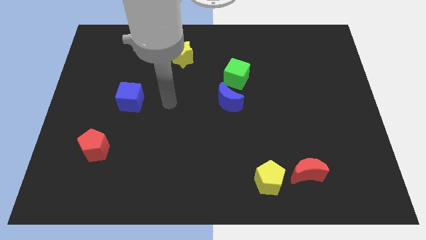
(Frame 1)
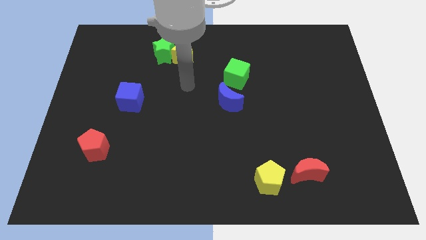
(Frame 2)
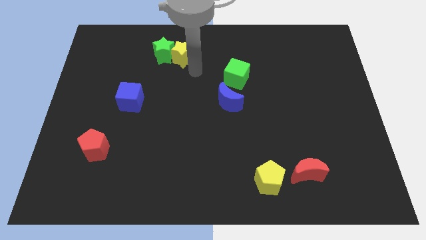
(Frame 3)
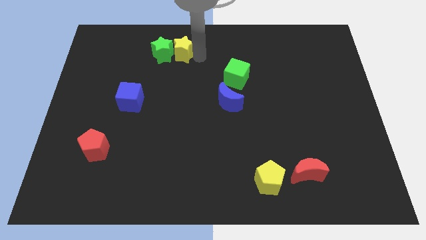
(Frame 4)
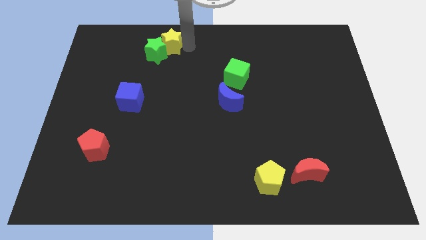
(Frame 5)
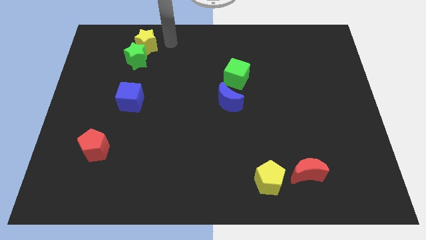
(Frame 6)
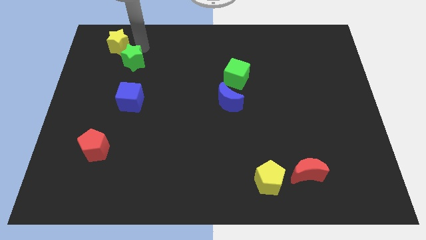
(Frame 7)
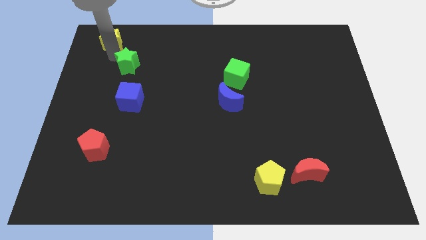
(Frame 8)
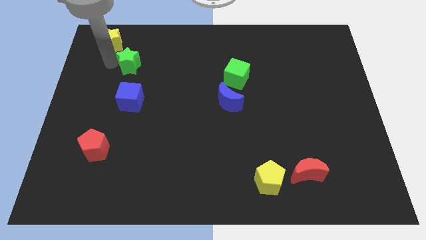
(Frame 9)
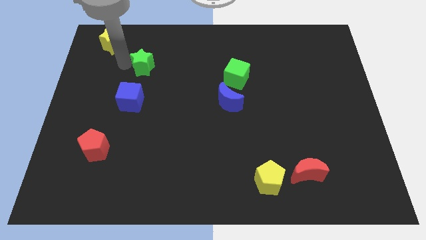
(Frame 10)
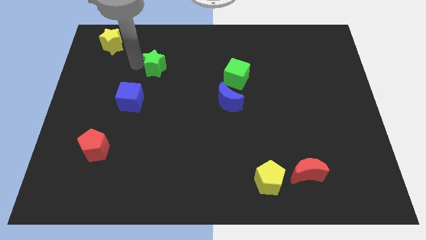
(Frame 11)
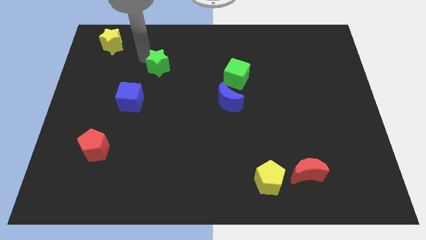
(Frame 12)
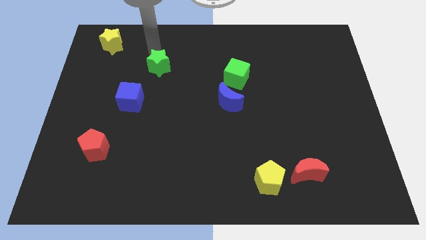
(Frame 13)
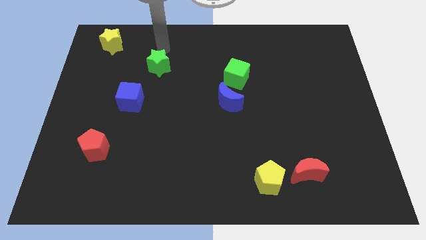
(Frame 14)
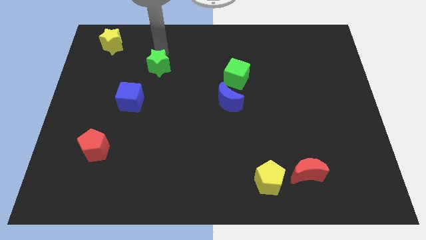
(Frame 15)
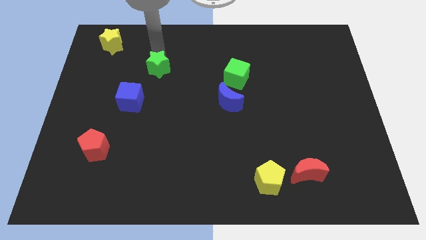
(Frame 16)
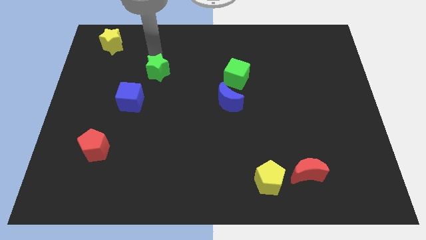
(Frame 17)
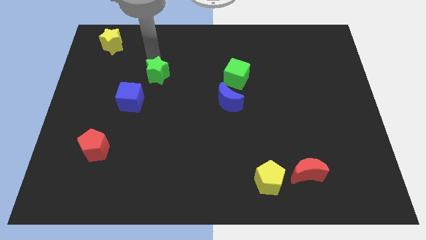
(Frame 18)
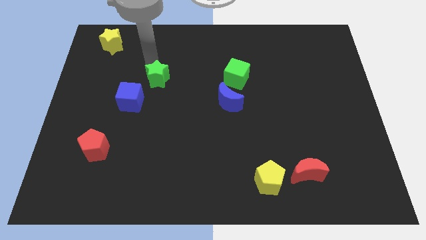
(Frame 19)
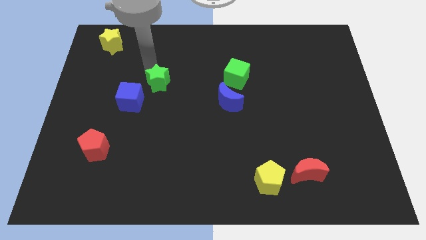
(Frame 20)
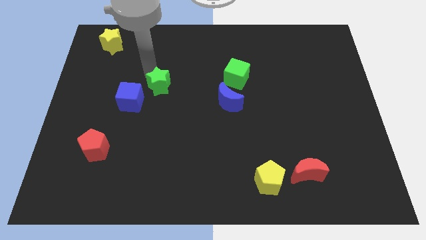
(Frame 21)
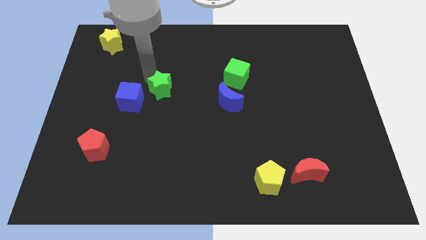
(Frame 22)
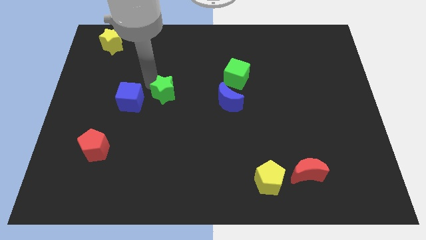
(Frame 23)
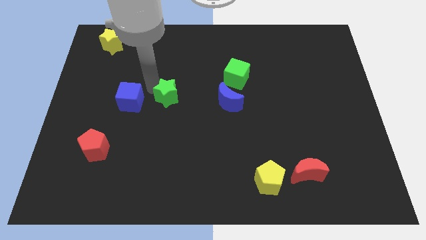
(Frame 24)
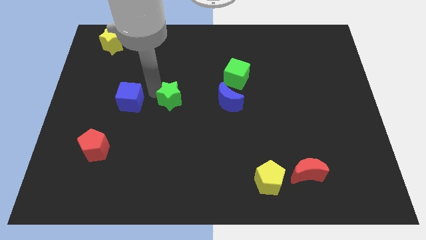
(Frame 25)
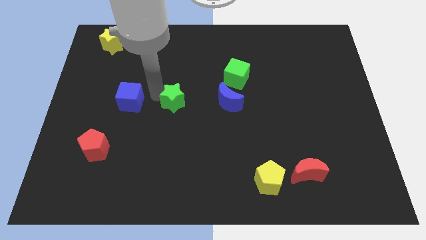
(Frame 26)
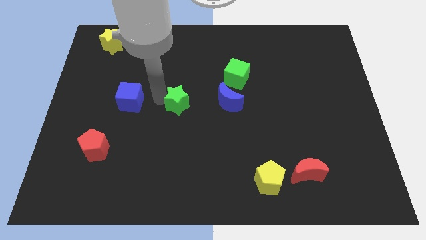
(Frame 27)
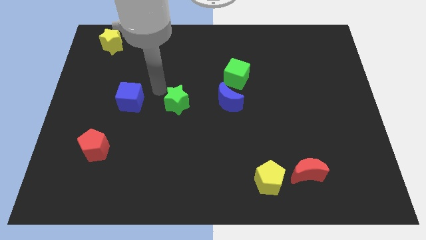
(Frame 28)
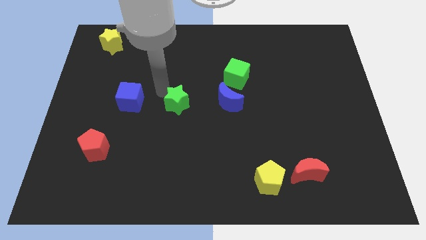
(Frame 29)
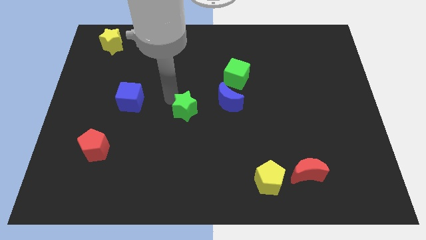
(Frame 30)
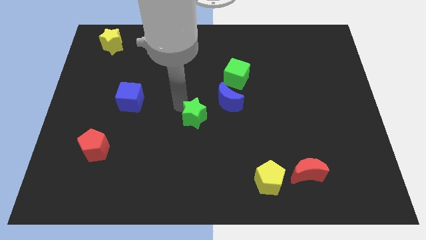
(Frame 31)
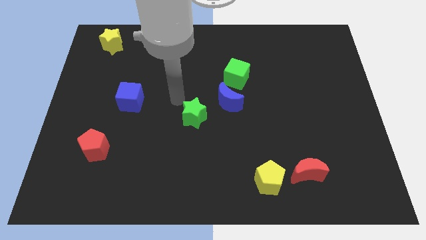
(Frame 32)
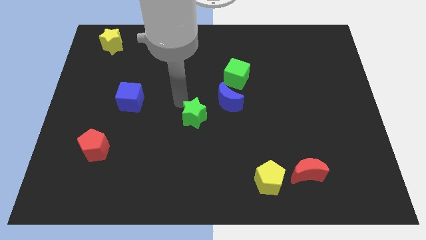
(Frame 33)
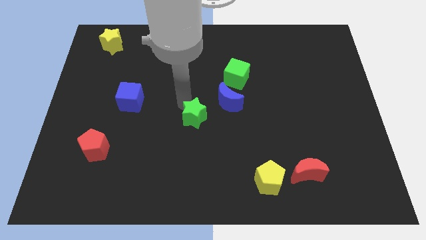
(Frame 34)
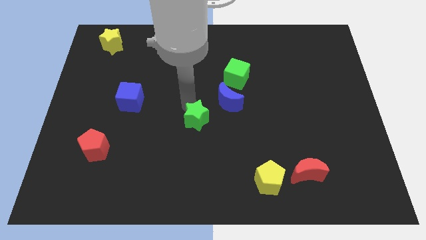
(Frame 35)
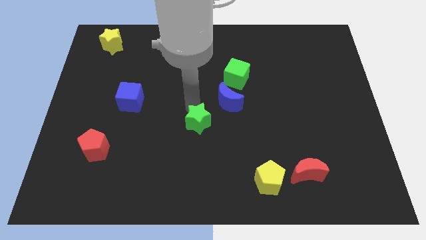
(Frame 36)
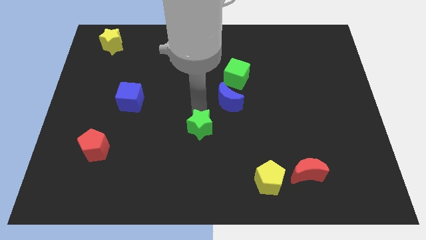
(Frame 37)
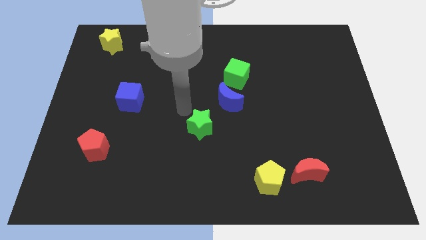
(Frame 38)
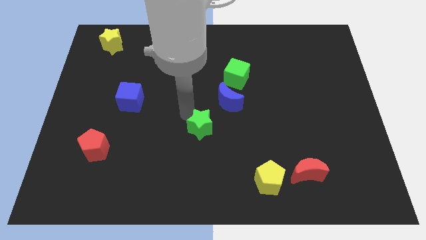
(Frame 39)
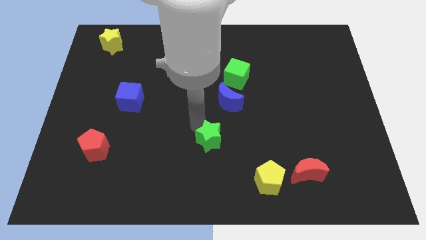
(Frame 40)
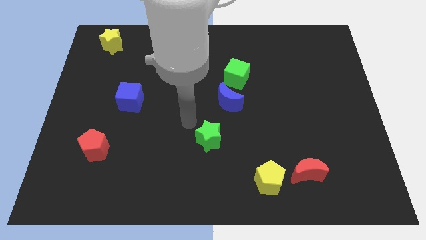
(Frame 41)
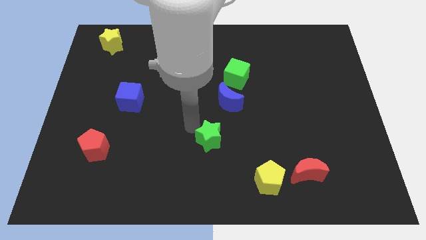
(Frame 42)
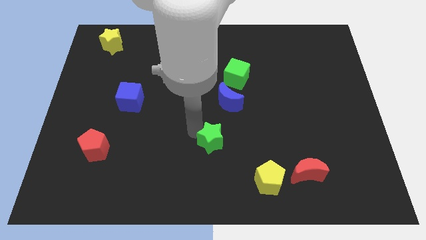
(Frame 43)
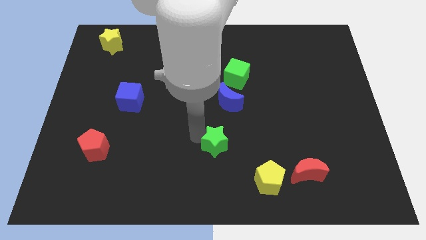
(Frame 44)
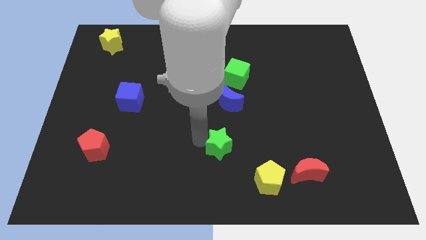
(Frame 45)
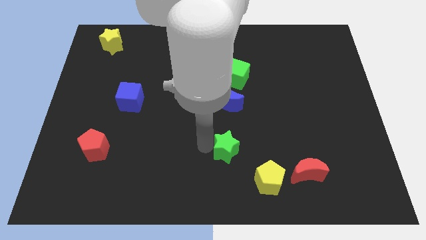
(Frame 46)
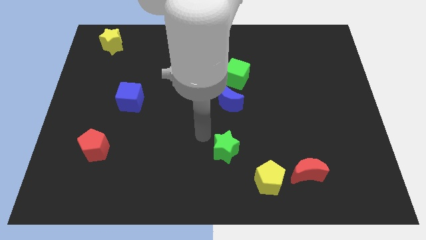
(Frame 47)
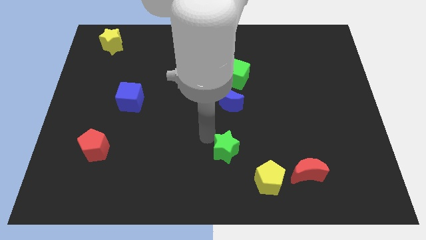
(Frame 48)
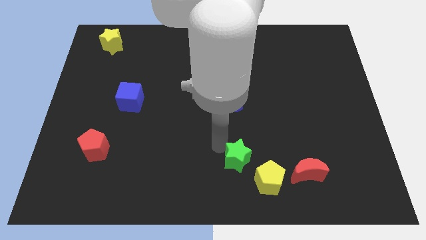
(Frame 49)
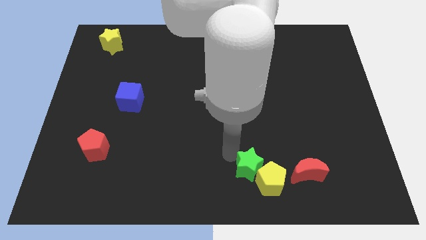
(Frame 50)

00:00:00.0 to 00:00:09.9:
put the green star close to the yellow pentagon

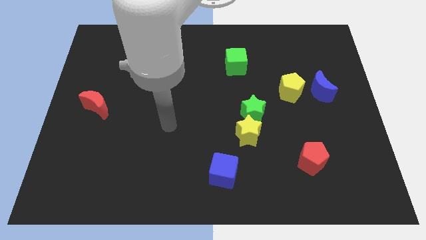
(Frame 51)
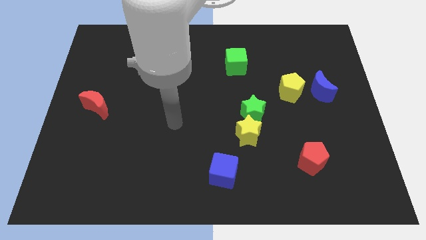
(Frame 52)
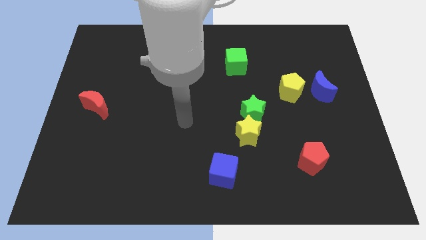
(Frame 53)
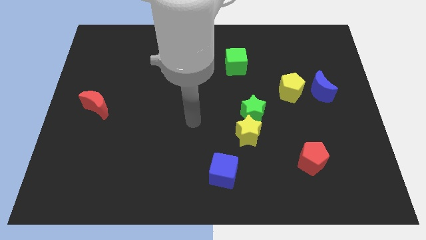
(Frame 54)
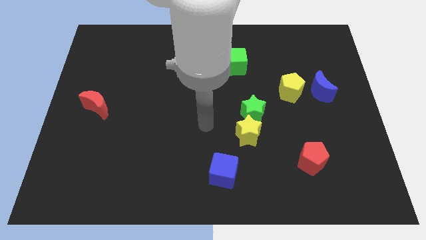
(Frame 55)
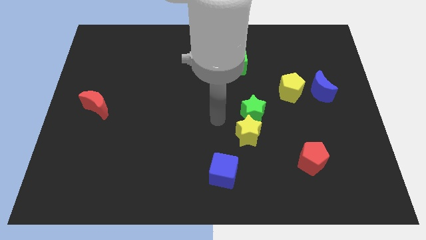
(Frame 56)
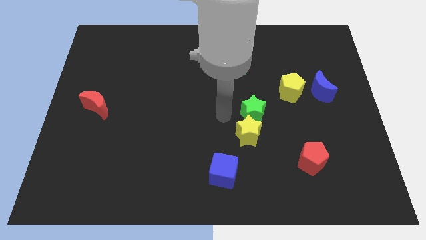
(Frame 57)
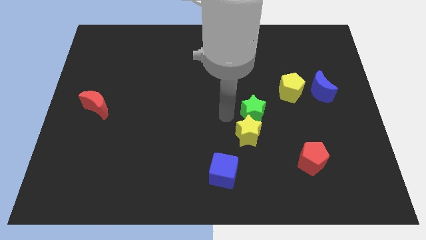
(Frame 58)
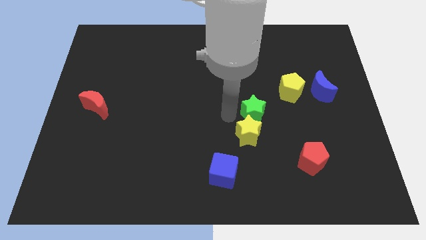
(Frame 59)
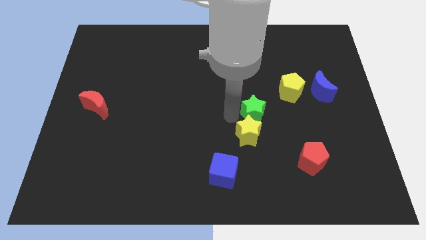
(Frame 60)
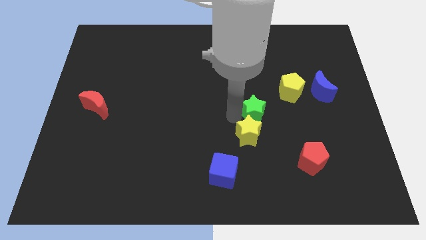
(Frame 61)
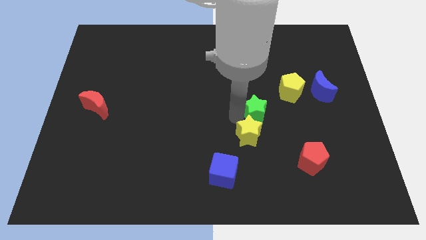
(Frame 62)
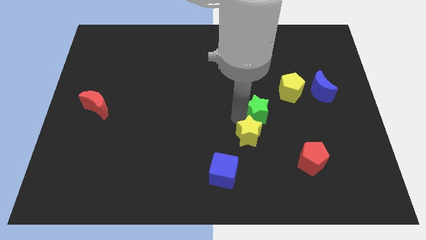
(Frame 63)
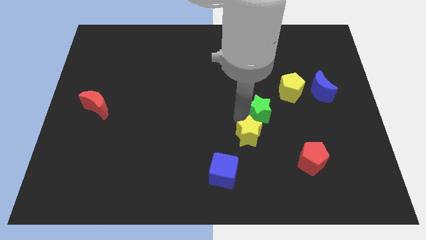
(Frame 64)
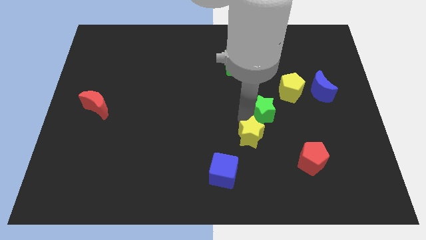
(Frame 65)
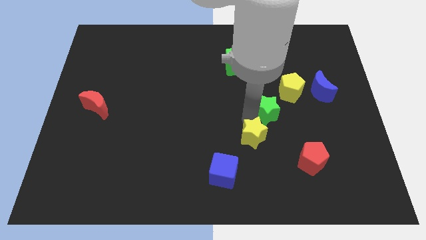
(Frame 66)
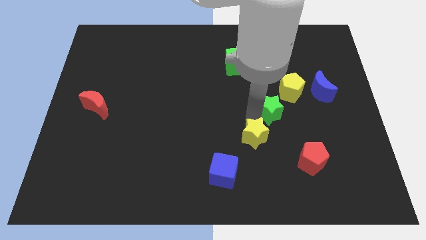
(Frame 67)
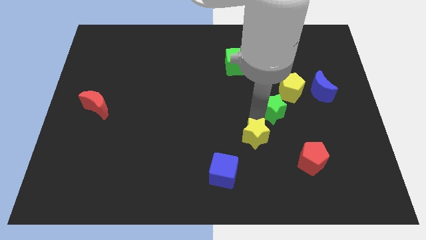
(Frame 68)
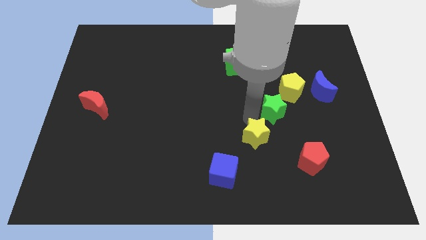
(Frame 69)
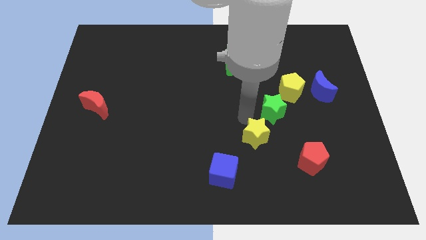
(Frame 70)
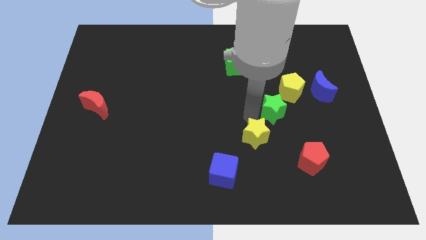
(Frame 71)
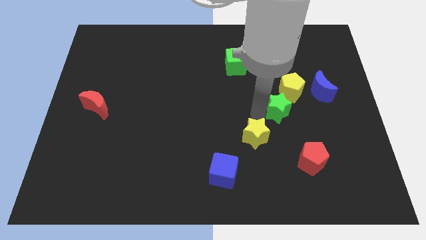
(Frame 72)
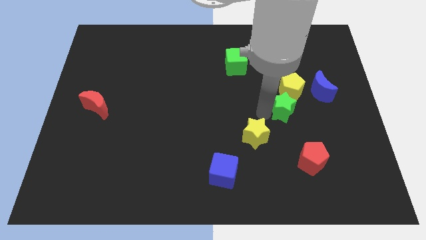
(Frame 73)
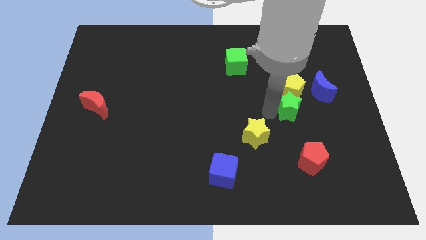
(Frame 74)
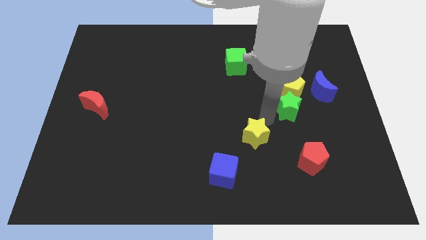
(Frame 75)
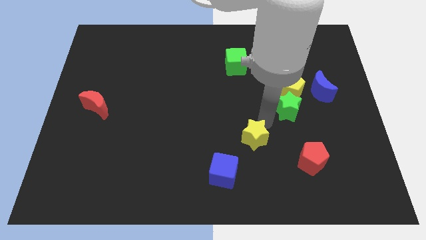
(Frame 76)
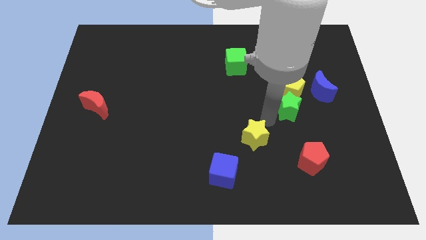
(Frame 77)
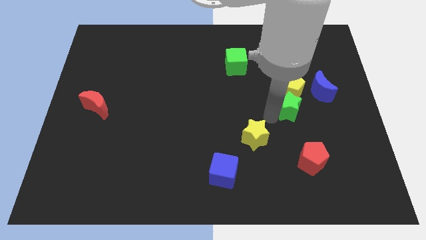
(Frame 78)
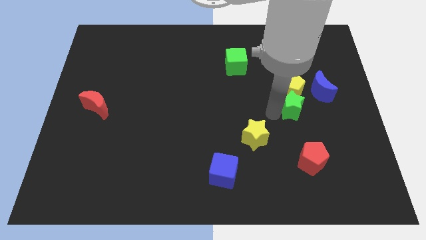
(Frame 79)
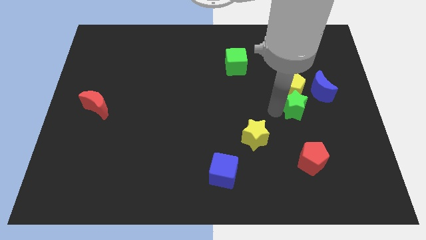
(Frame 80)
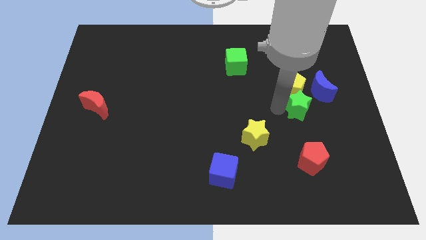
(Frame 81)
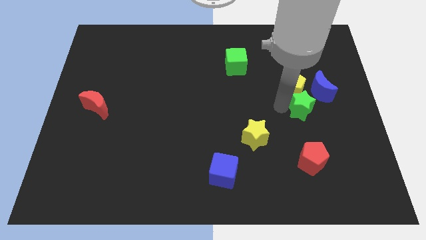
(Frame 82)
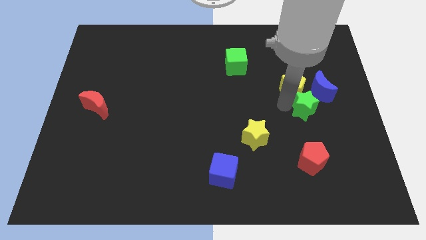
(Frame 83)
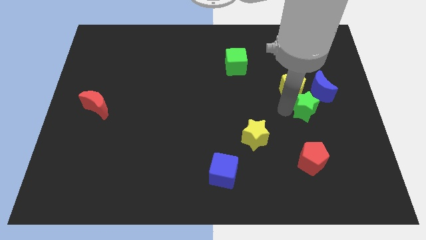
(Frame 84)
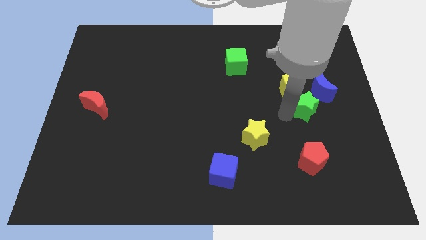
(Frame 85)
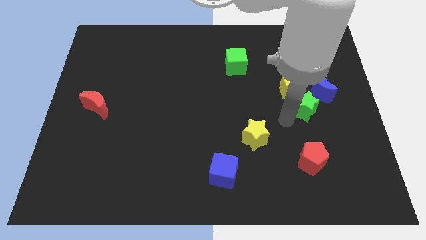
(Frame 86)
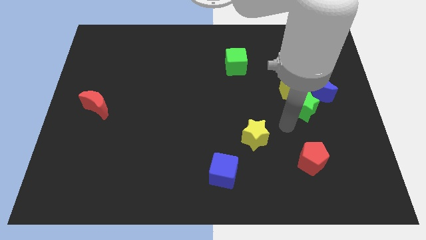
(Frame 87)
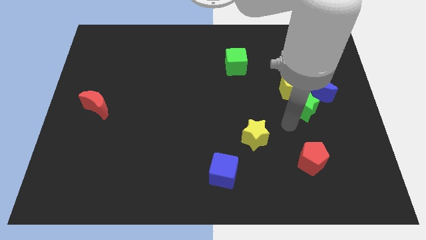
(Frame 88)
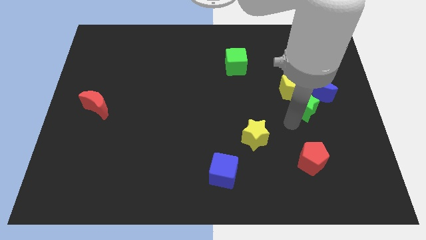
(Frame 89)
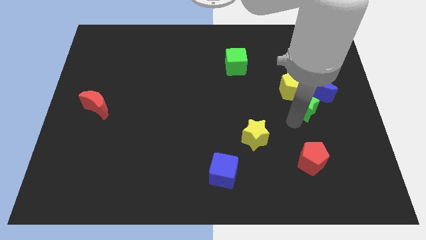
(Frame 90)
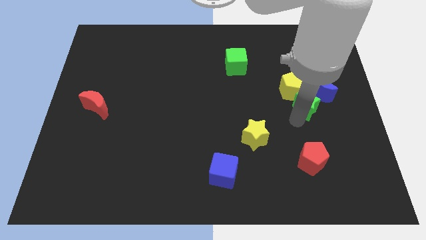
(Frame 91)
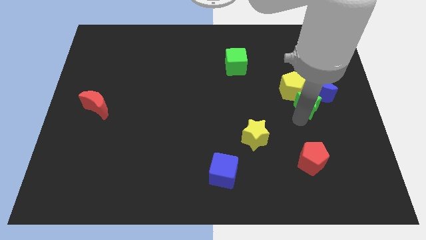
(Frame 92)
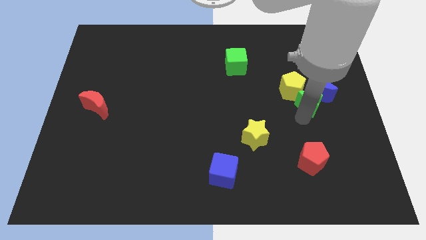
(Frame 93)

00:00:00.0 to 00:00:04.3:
slide the green star next to the blue moon
